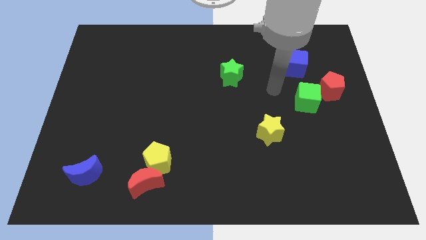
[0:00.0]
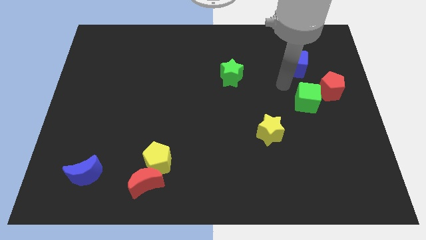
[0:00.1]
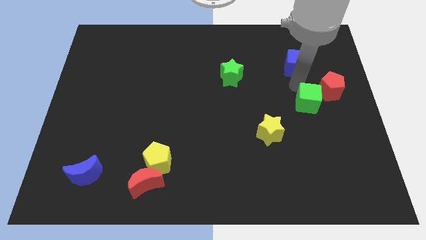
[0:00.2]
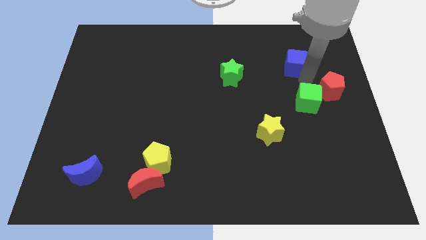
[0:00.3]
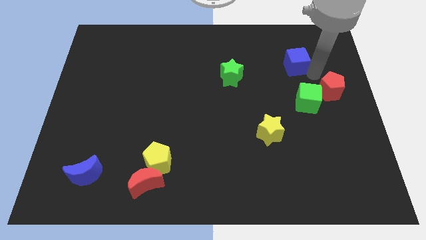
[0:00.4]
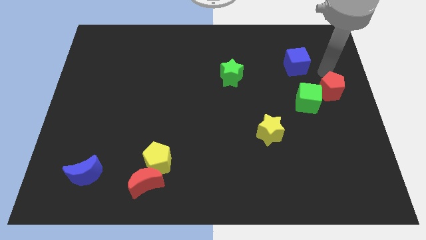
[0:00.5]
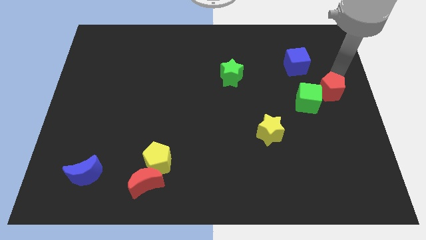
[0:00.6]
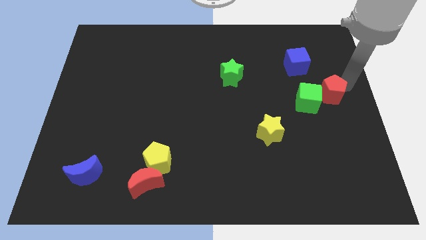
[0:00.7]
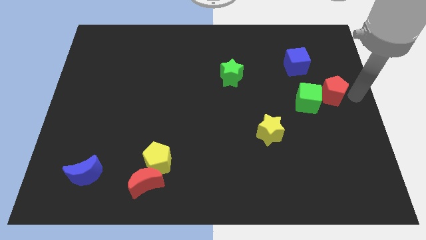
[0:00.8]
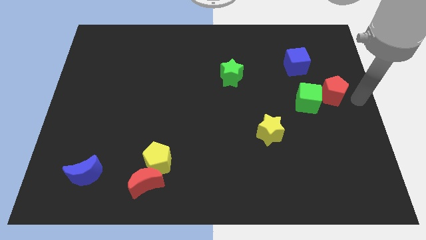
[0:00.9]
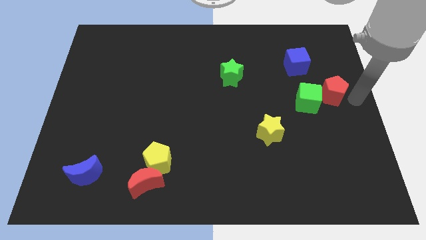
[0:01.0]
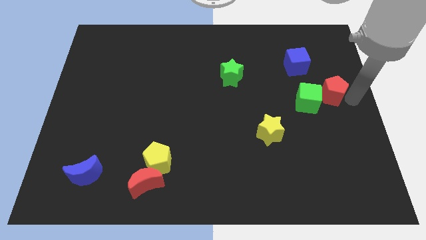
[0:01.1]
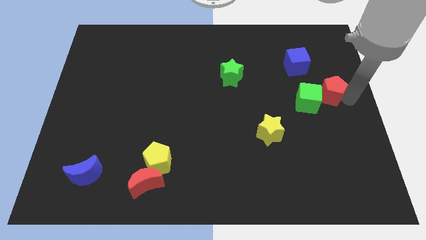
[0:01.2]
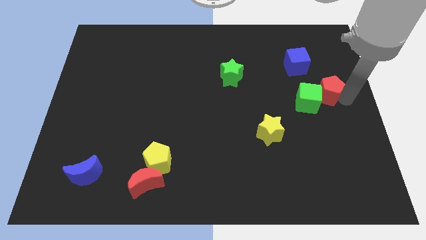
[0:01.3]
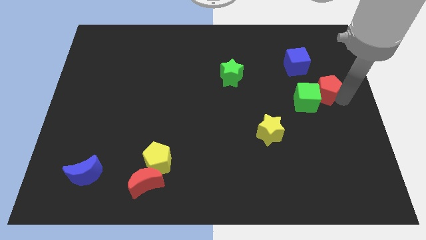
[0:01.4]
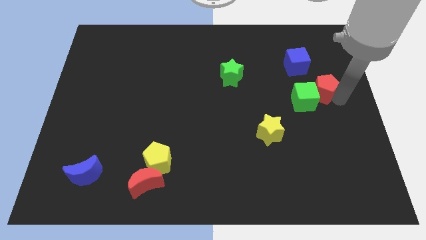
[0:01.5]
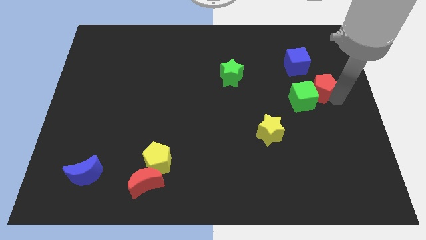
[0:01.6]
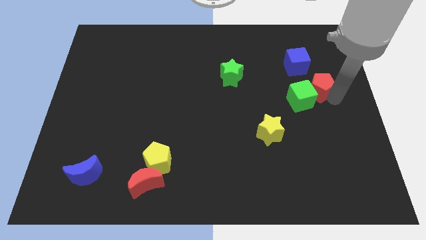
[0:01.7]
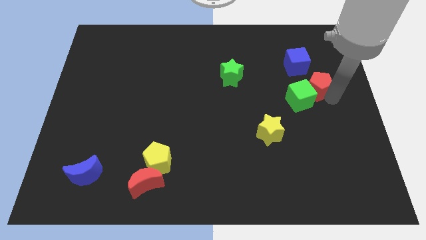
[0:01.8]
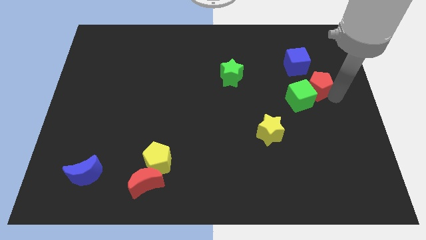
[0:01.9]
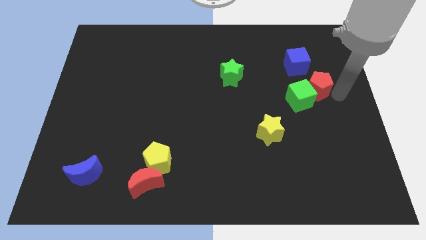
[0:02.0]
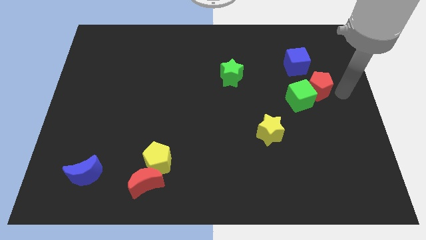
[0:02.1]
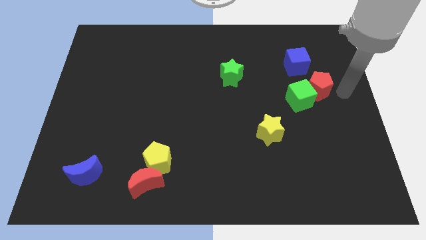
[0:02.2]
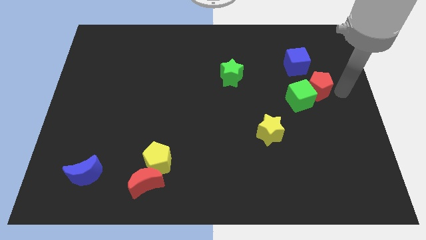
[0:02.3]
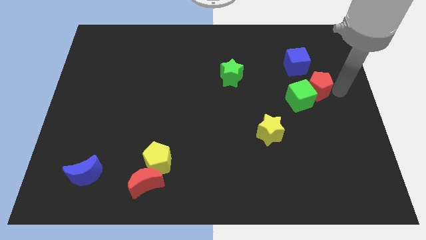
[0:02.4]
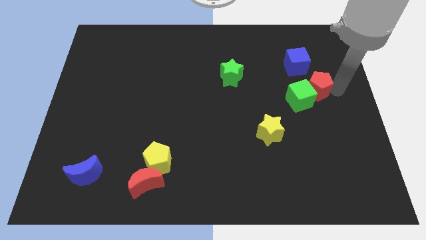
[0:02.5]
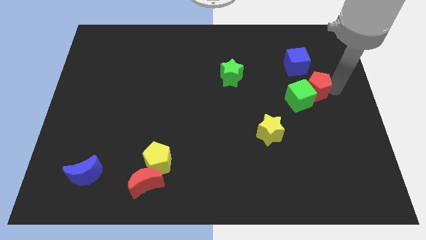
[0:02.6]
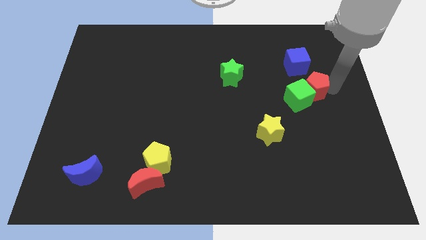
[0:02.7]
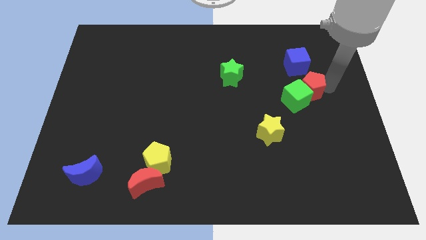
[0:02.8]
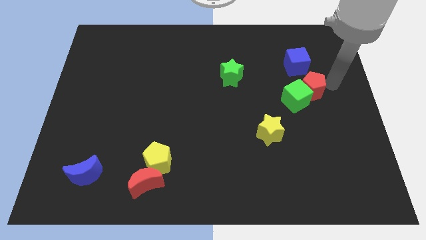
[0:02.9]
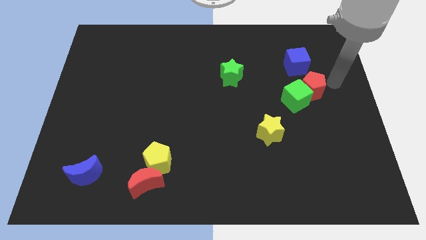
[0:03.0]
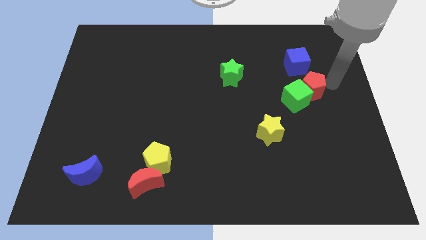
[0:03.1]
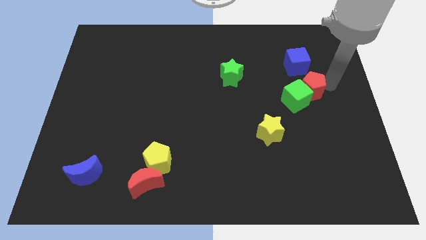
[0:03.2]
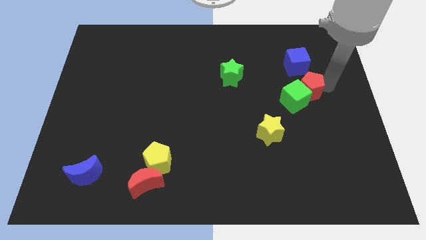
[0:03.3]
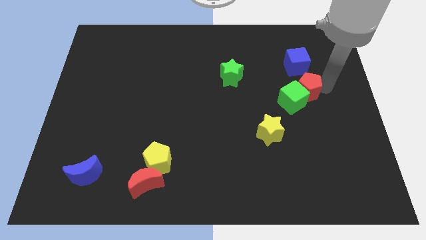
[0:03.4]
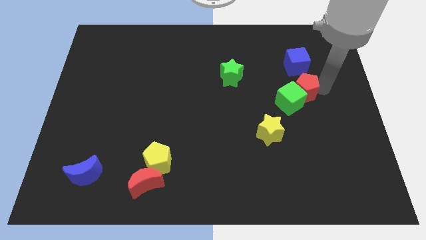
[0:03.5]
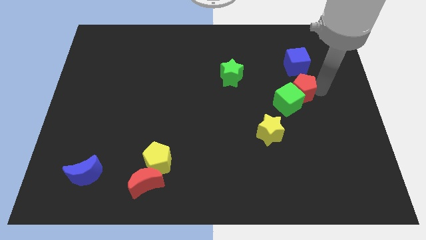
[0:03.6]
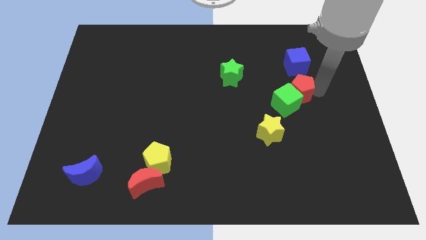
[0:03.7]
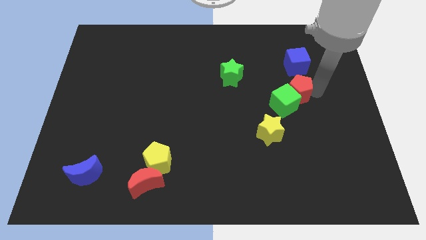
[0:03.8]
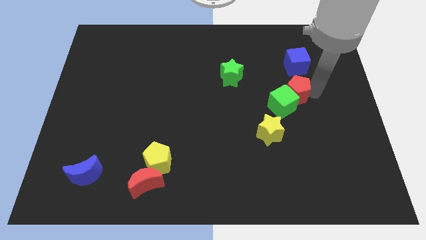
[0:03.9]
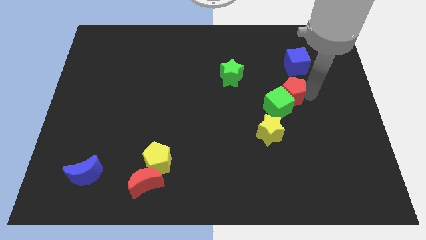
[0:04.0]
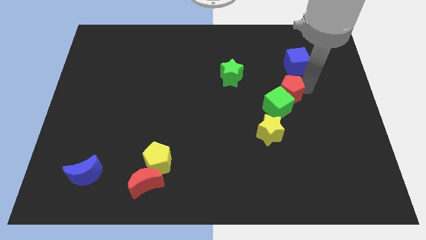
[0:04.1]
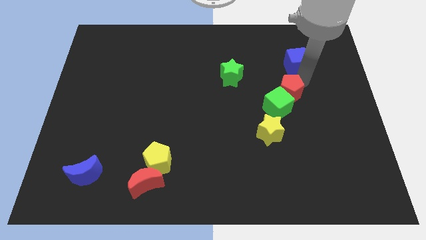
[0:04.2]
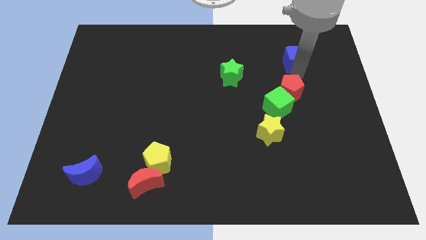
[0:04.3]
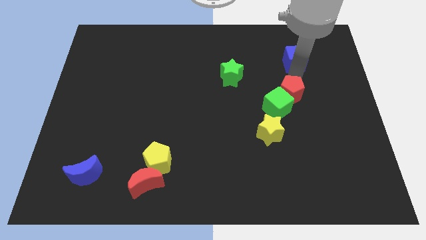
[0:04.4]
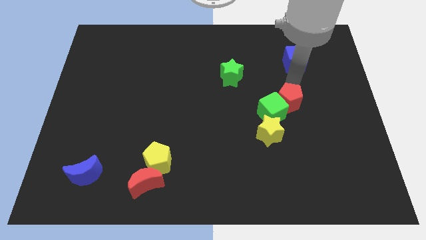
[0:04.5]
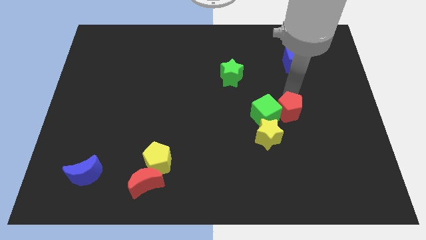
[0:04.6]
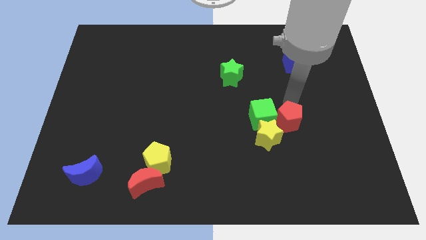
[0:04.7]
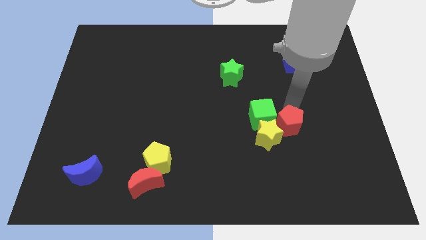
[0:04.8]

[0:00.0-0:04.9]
slide the red pentagon to the yellow star

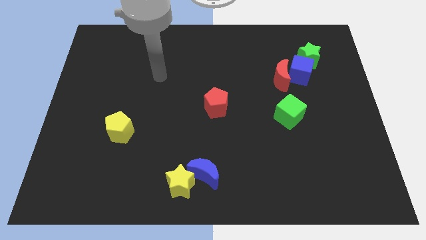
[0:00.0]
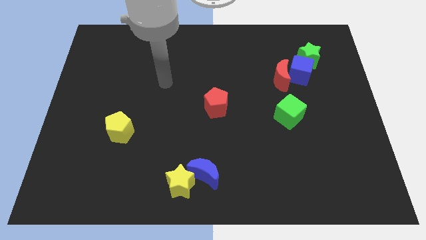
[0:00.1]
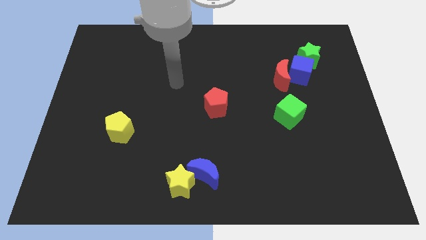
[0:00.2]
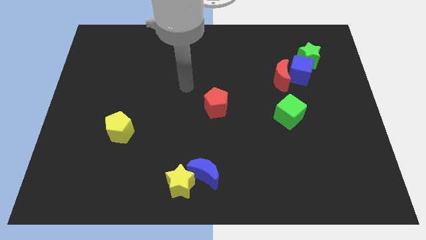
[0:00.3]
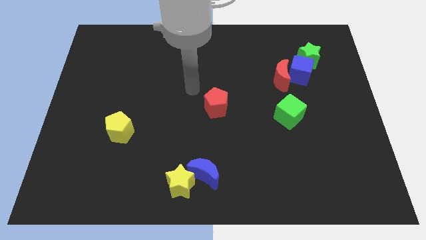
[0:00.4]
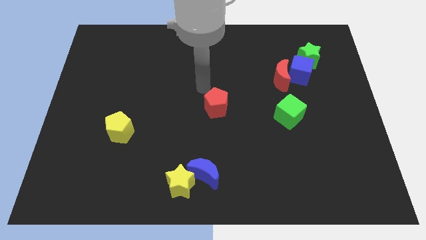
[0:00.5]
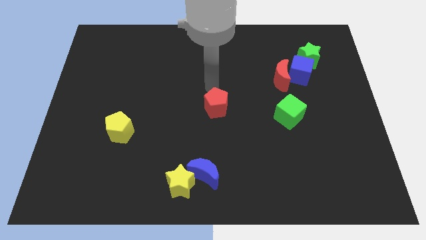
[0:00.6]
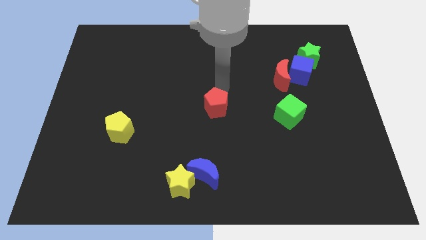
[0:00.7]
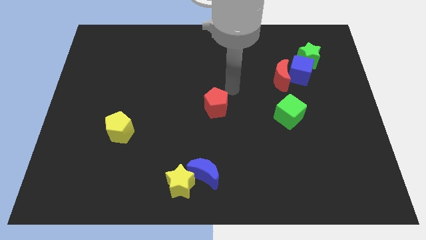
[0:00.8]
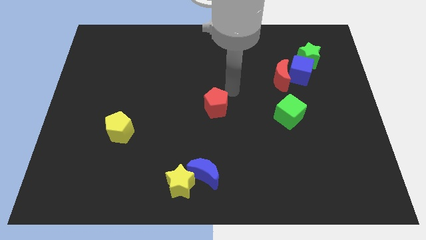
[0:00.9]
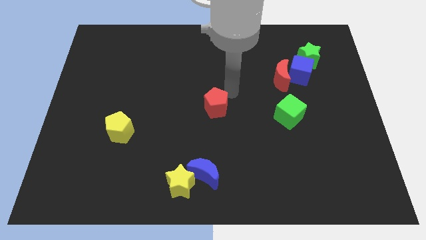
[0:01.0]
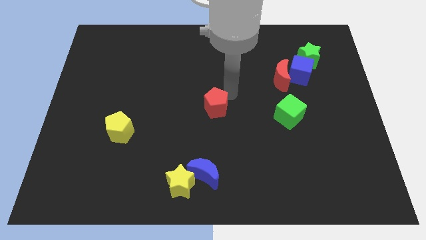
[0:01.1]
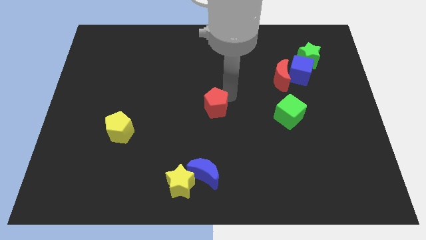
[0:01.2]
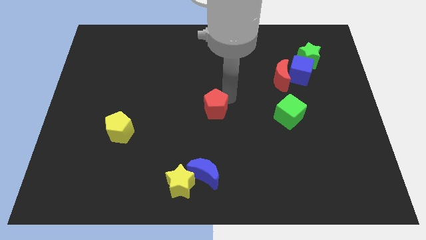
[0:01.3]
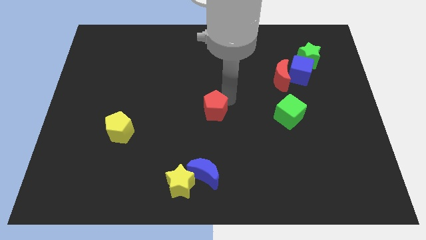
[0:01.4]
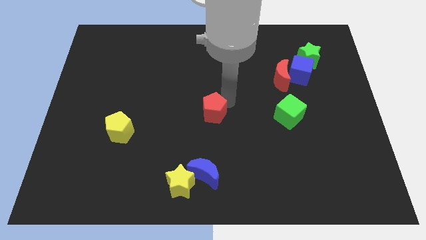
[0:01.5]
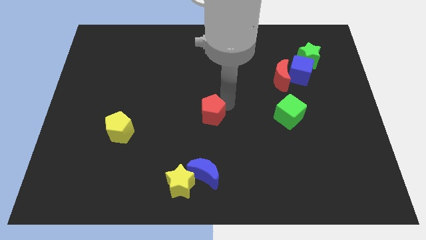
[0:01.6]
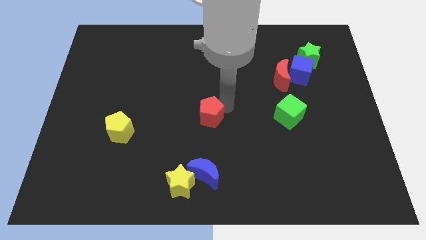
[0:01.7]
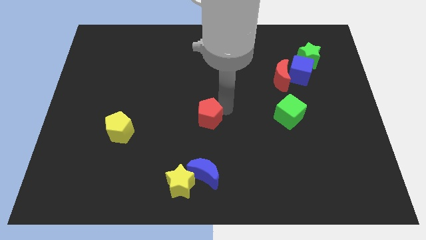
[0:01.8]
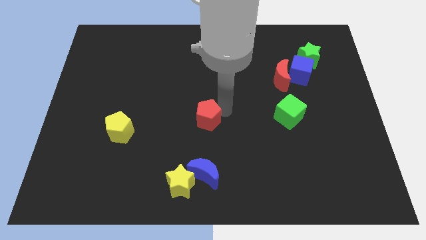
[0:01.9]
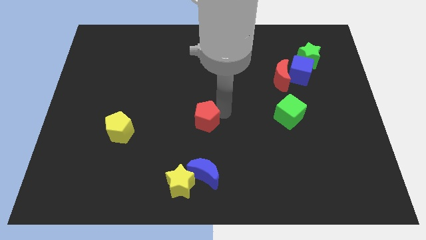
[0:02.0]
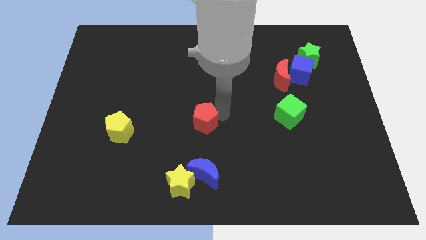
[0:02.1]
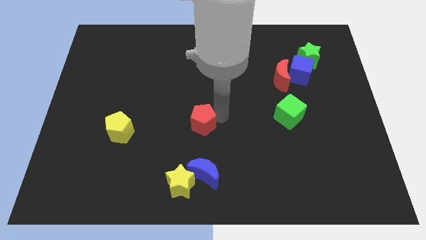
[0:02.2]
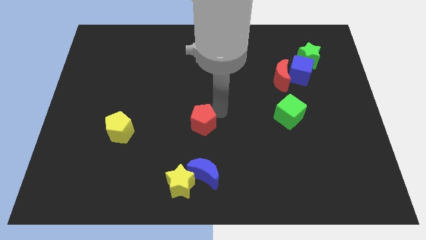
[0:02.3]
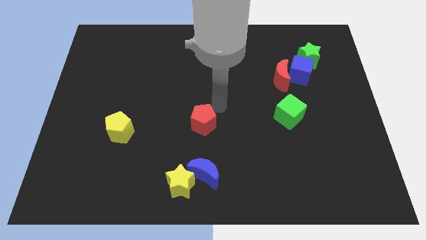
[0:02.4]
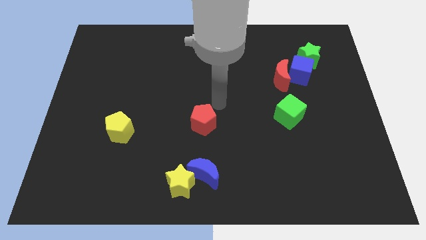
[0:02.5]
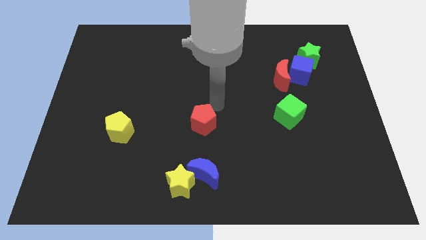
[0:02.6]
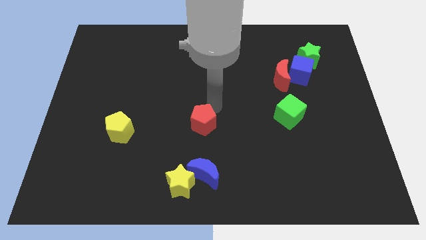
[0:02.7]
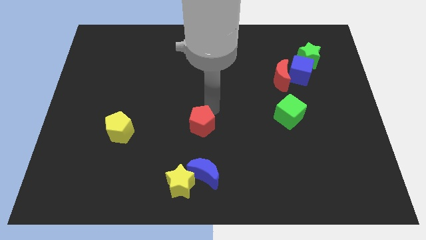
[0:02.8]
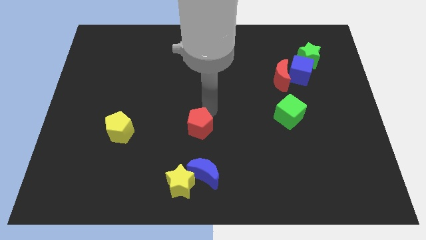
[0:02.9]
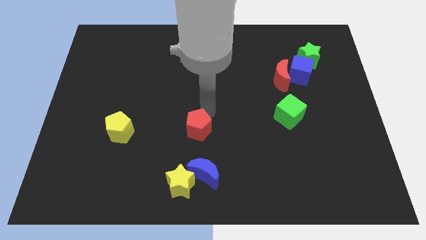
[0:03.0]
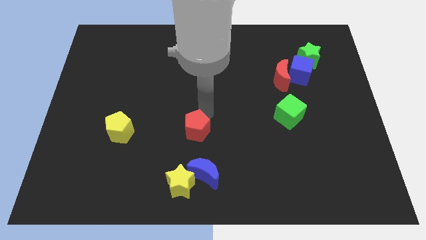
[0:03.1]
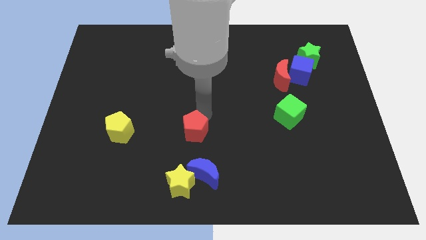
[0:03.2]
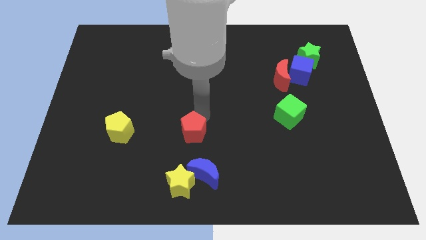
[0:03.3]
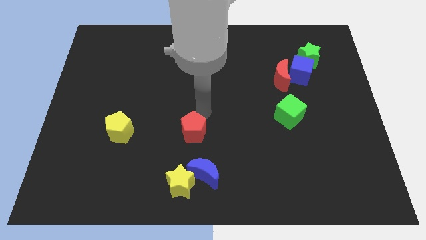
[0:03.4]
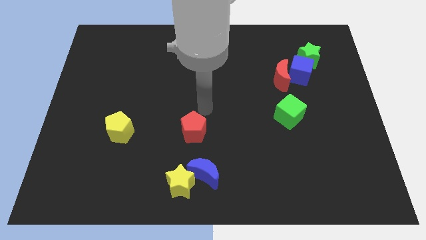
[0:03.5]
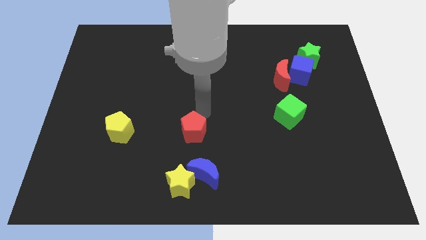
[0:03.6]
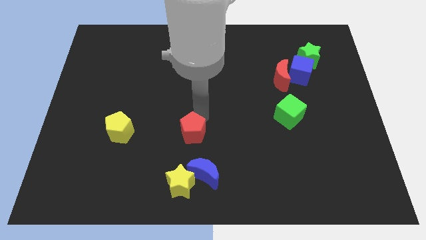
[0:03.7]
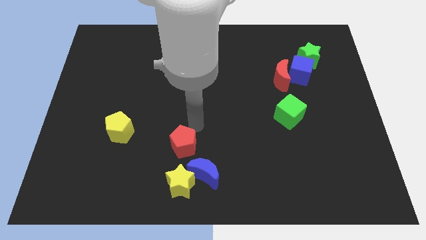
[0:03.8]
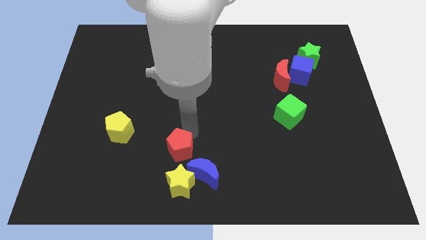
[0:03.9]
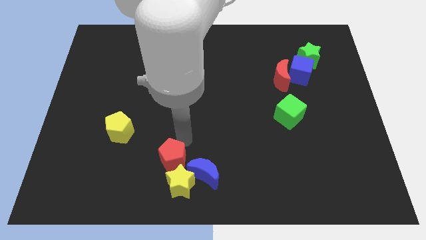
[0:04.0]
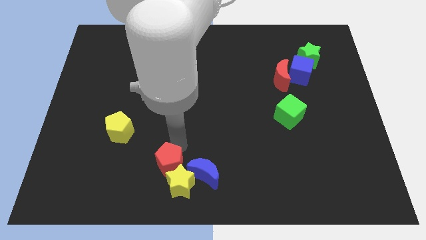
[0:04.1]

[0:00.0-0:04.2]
move the red pentagon next to the yellow star
